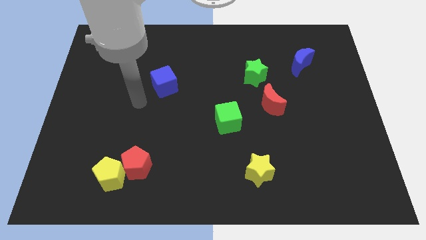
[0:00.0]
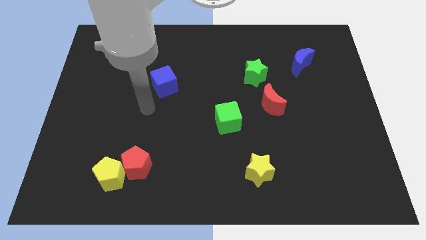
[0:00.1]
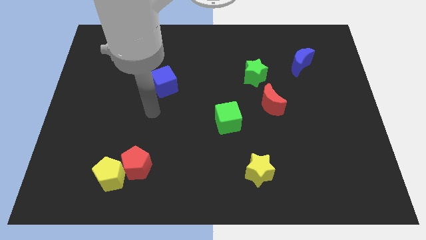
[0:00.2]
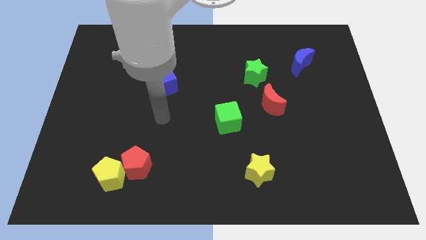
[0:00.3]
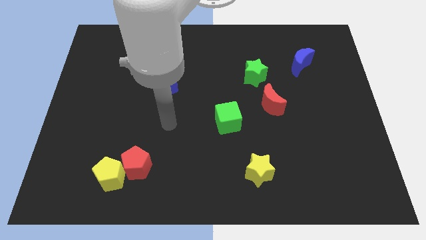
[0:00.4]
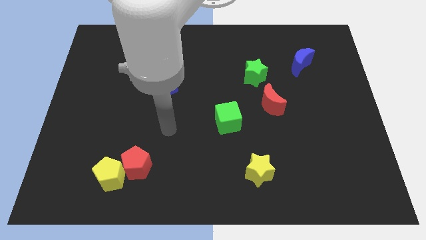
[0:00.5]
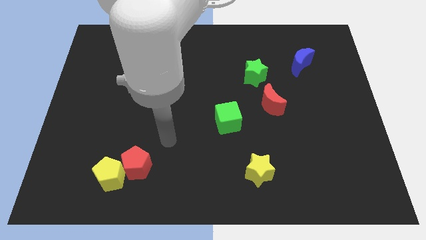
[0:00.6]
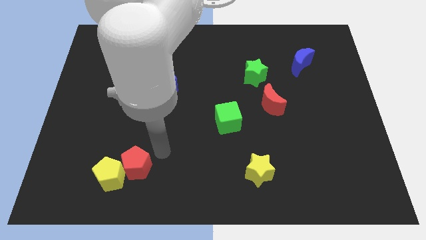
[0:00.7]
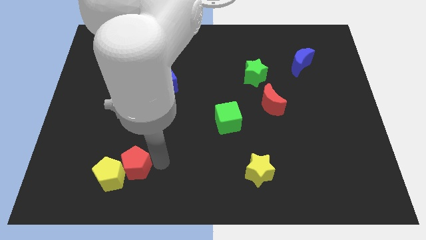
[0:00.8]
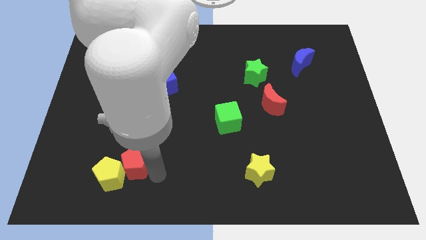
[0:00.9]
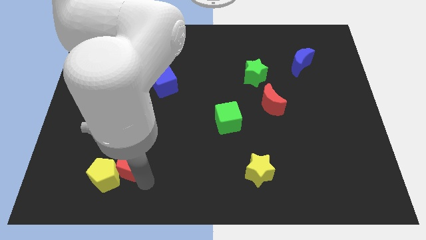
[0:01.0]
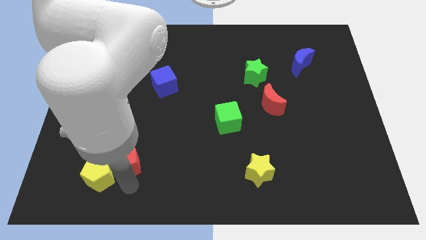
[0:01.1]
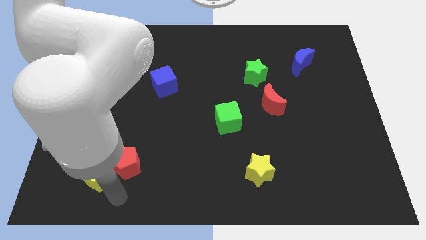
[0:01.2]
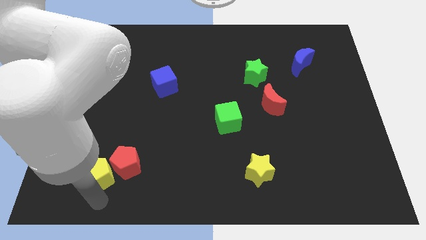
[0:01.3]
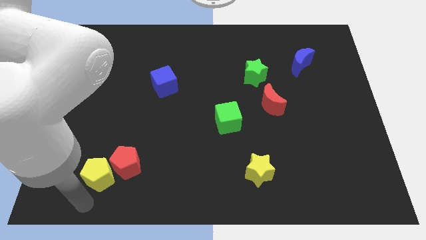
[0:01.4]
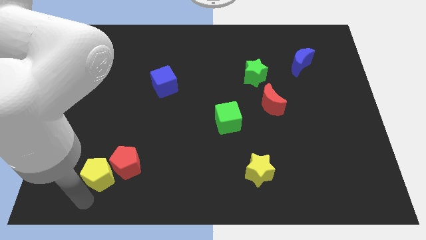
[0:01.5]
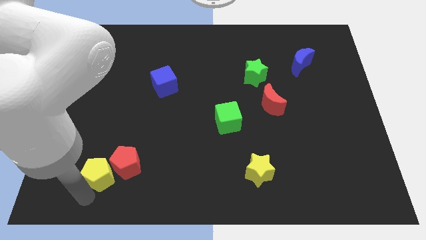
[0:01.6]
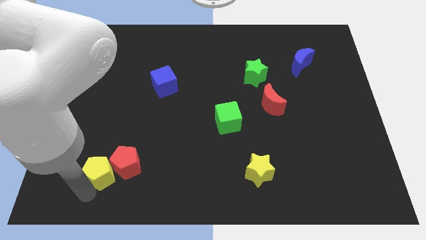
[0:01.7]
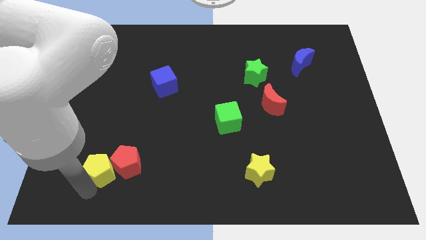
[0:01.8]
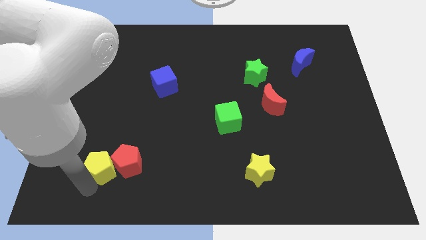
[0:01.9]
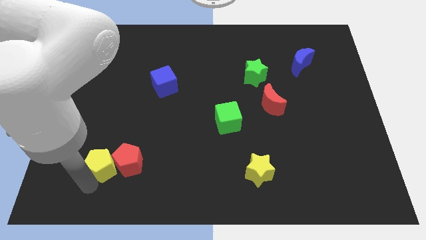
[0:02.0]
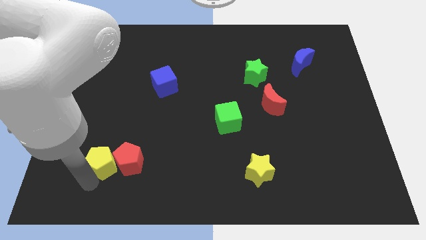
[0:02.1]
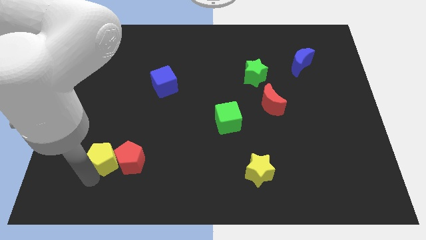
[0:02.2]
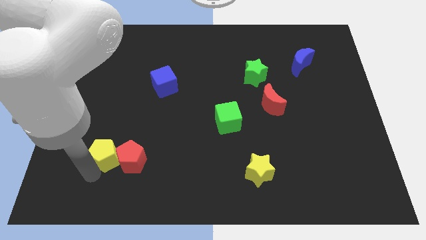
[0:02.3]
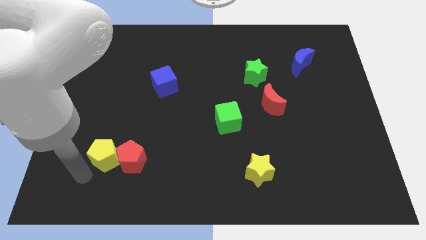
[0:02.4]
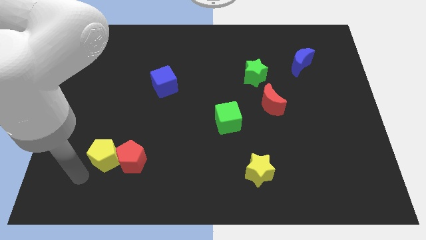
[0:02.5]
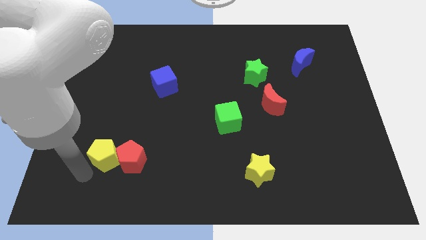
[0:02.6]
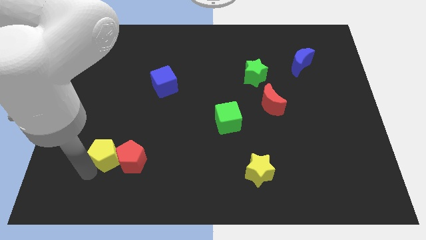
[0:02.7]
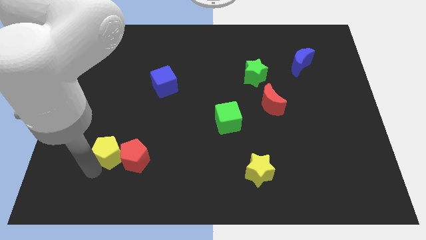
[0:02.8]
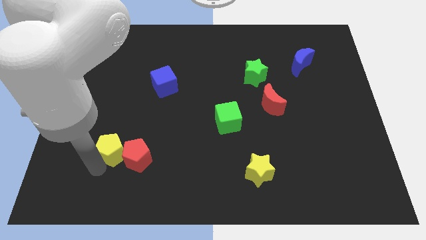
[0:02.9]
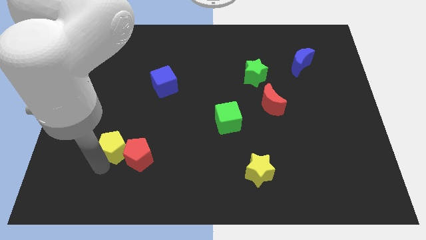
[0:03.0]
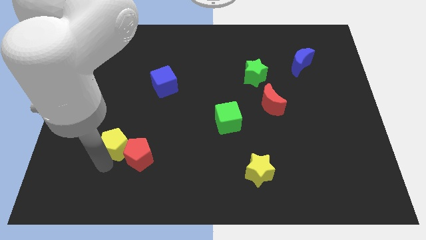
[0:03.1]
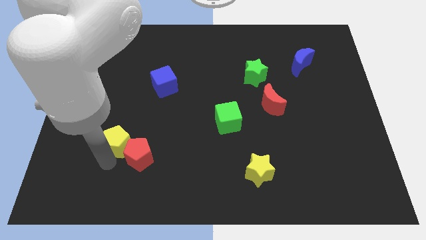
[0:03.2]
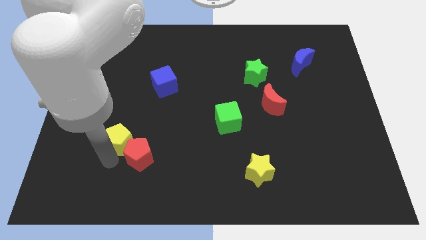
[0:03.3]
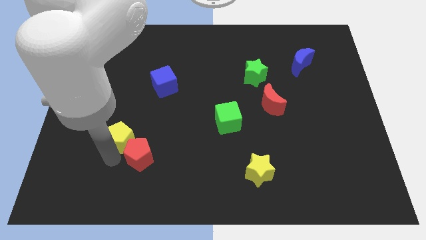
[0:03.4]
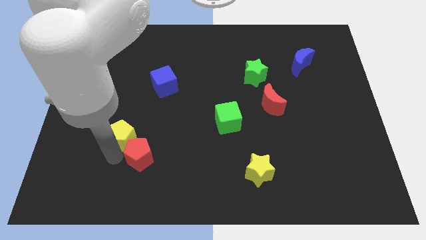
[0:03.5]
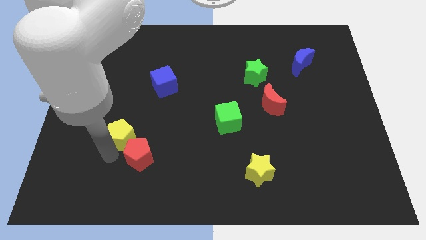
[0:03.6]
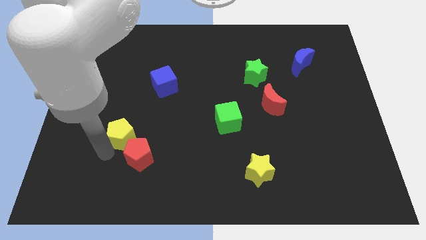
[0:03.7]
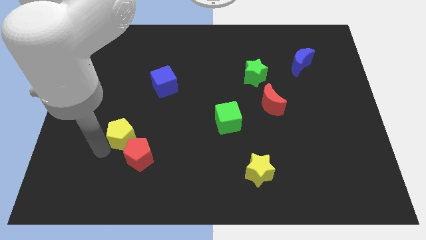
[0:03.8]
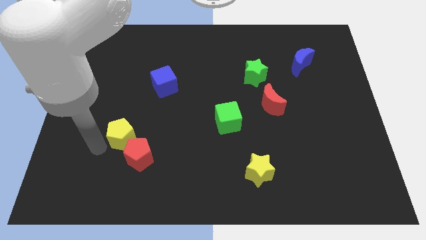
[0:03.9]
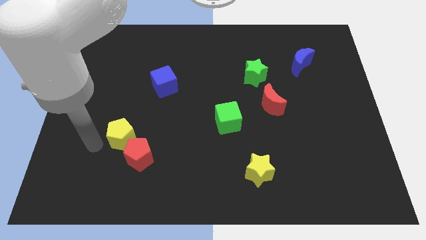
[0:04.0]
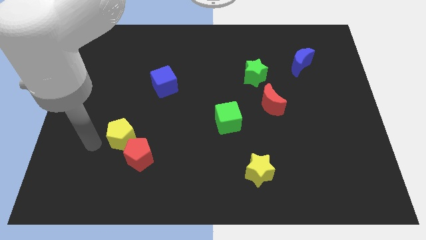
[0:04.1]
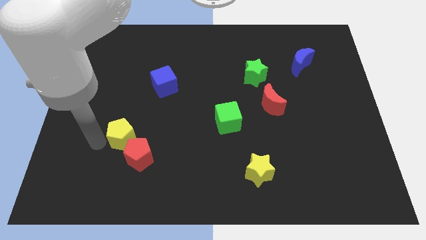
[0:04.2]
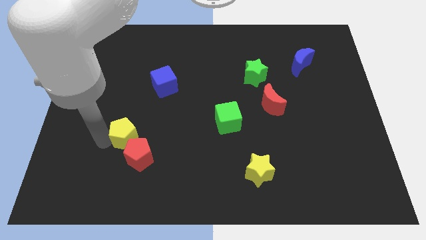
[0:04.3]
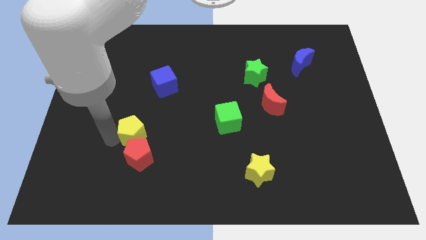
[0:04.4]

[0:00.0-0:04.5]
slide the yellow pentagon upwards and to the right diagonally slightly

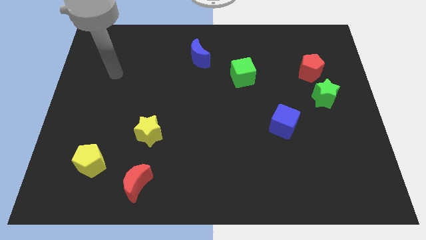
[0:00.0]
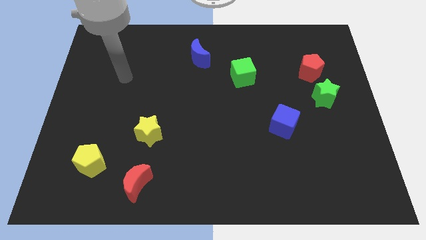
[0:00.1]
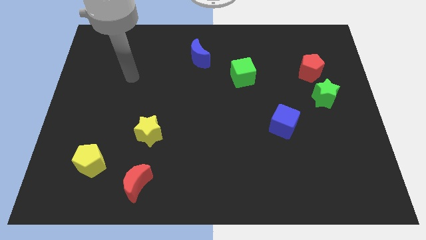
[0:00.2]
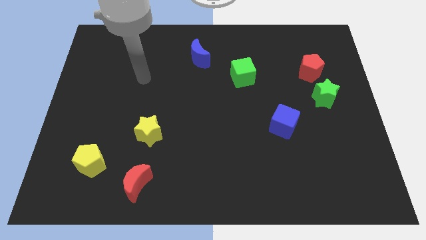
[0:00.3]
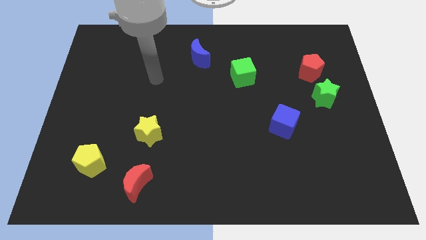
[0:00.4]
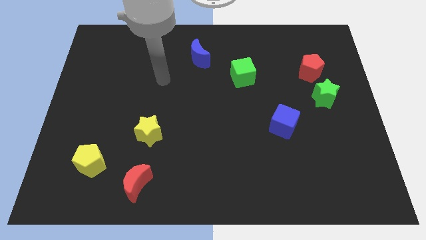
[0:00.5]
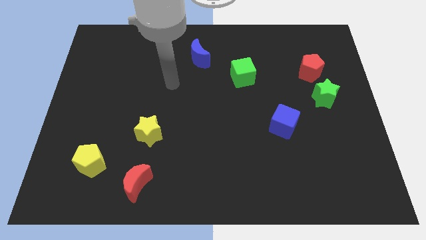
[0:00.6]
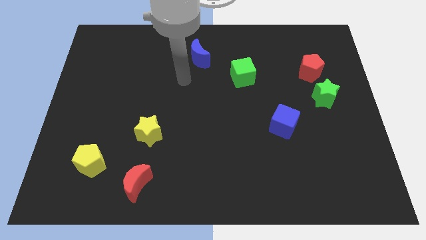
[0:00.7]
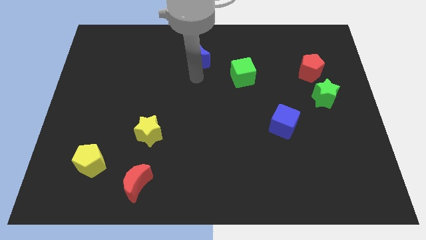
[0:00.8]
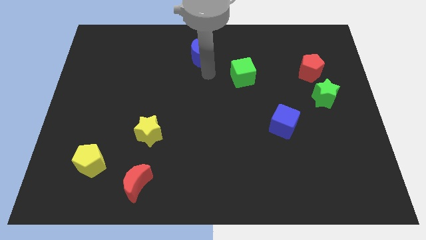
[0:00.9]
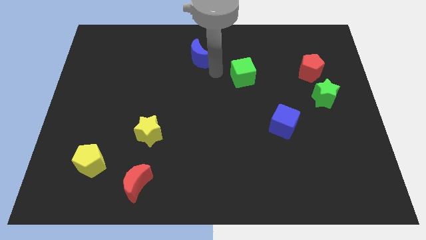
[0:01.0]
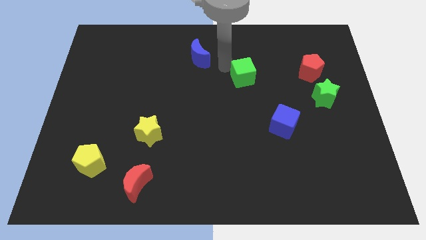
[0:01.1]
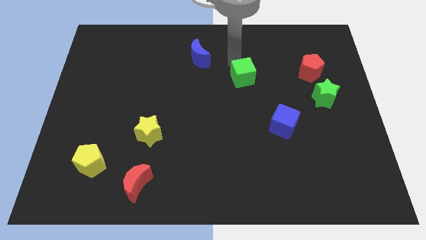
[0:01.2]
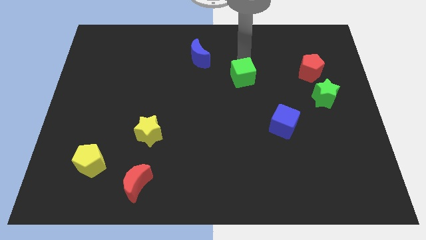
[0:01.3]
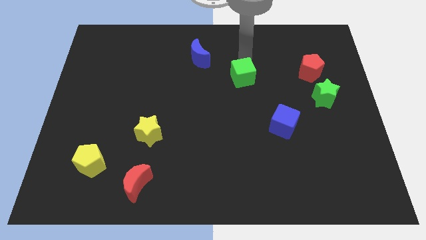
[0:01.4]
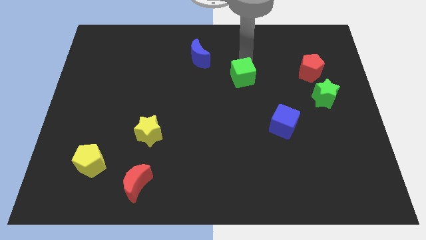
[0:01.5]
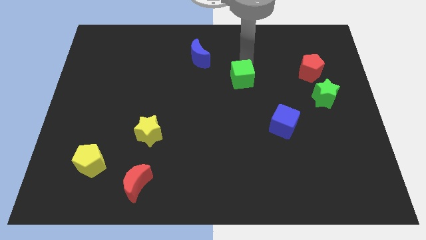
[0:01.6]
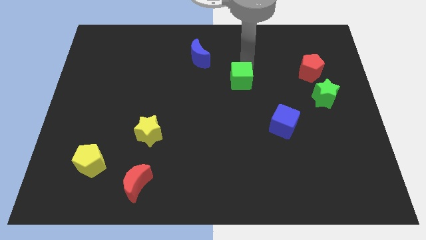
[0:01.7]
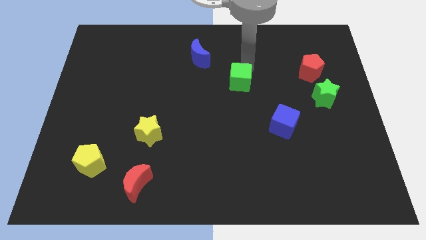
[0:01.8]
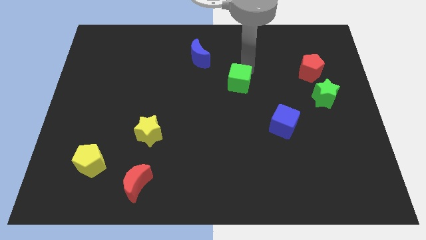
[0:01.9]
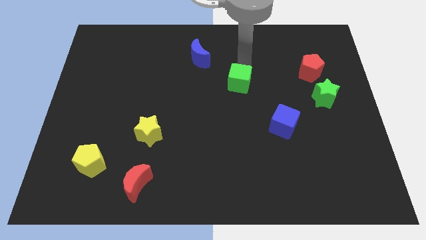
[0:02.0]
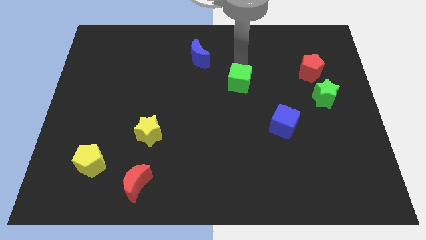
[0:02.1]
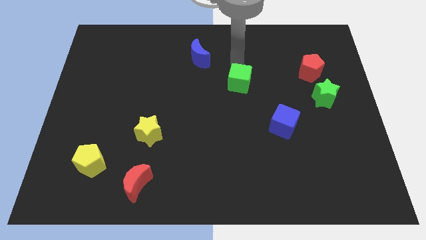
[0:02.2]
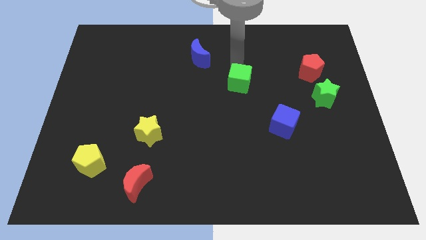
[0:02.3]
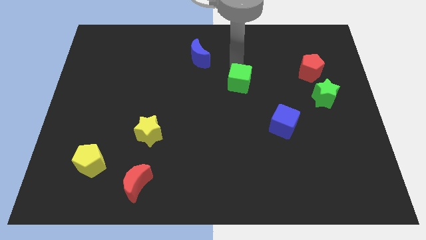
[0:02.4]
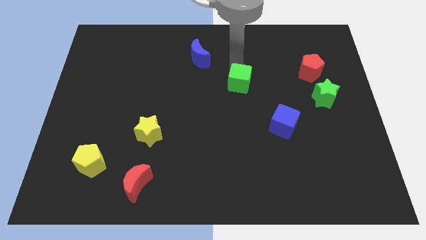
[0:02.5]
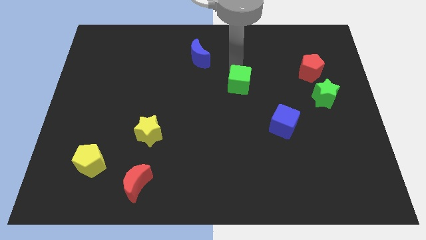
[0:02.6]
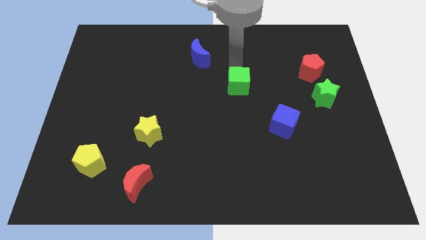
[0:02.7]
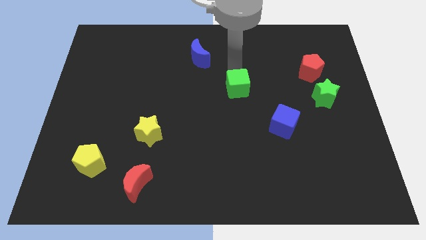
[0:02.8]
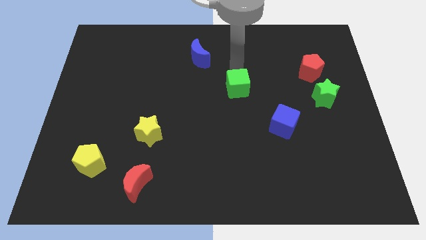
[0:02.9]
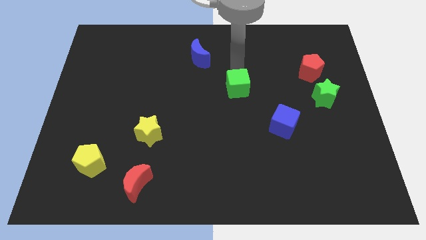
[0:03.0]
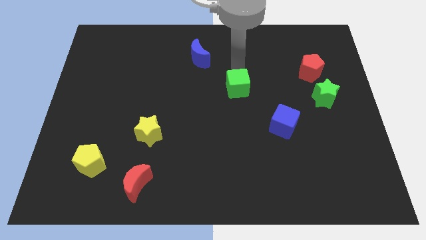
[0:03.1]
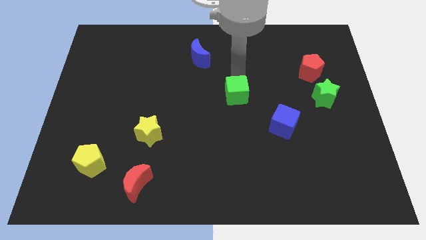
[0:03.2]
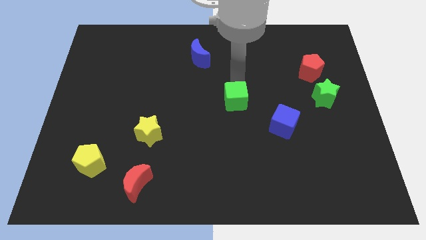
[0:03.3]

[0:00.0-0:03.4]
slightly move the green cube downwards

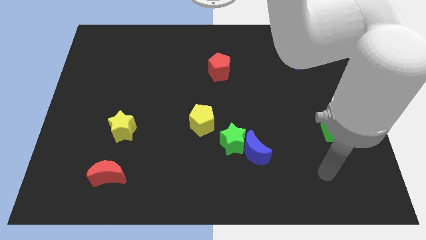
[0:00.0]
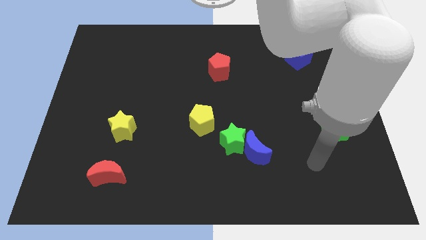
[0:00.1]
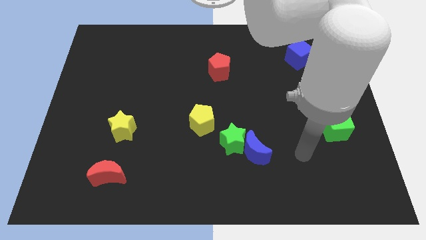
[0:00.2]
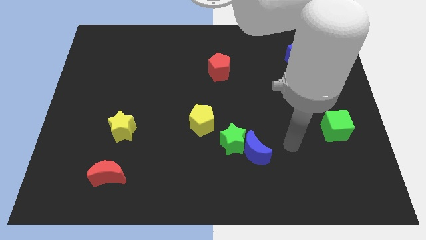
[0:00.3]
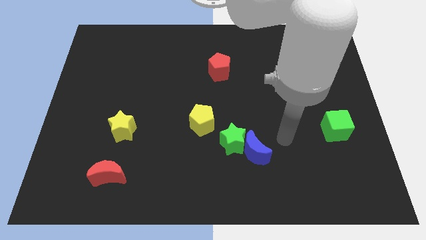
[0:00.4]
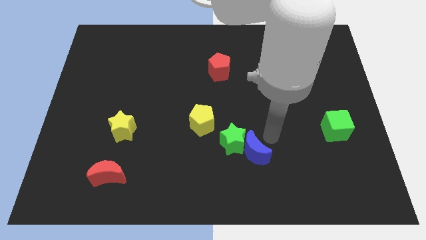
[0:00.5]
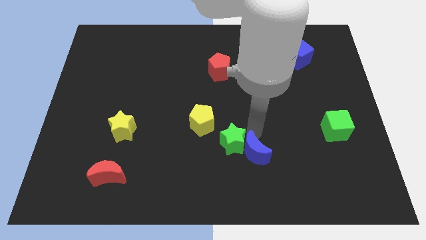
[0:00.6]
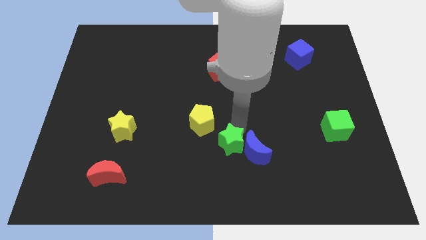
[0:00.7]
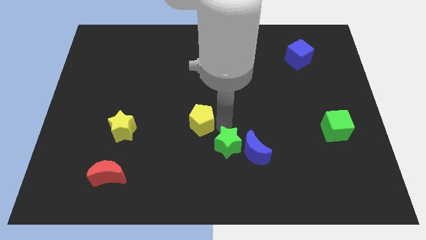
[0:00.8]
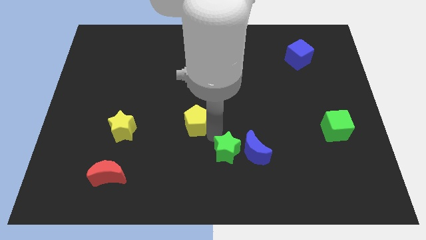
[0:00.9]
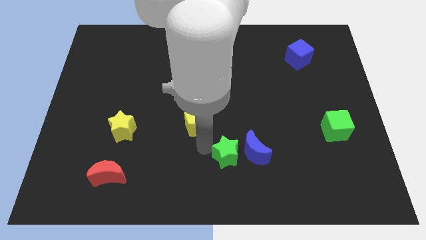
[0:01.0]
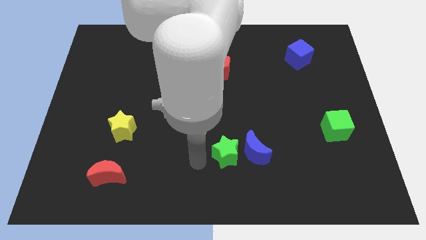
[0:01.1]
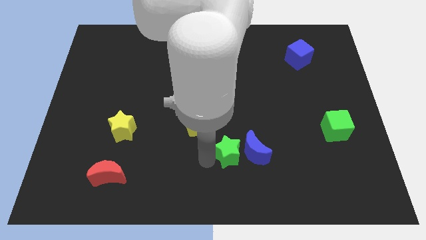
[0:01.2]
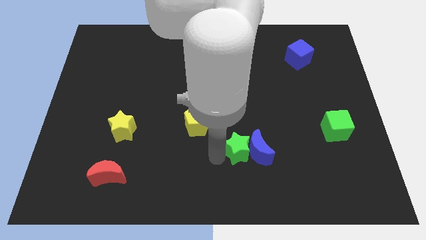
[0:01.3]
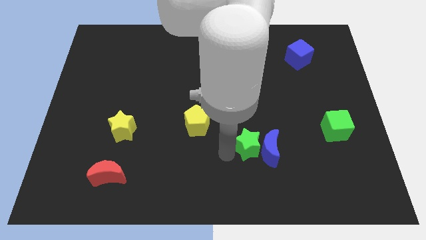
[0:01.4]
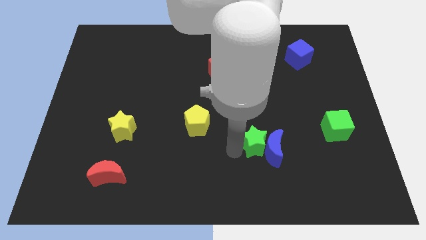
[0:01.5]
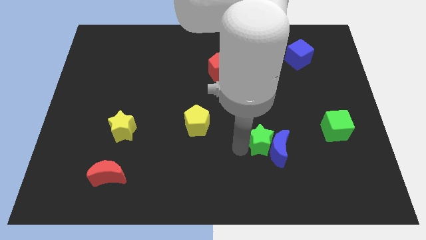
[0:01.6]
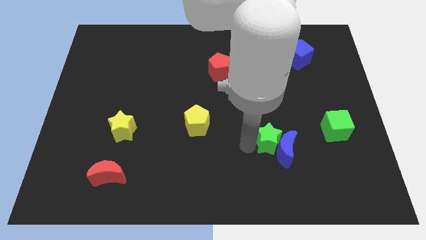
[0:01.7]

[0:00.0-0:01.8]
move the green star to the right a bit
